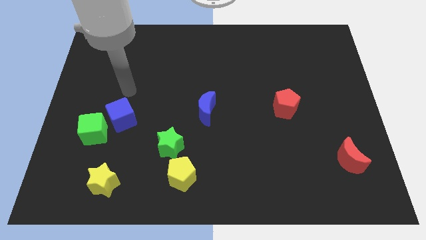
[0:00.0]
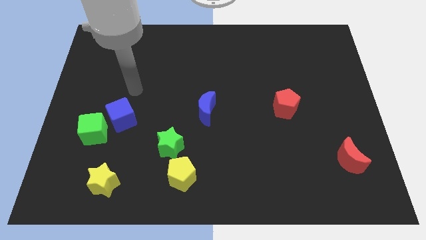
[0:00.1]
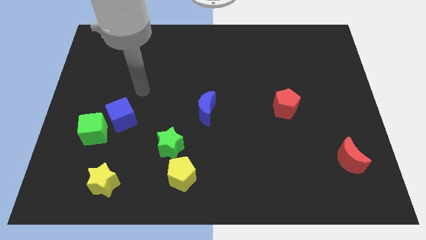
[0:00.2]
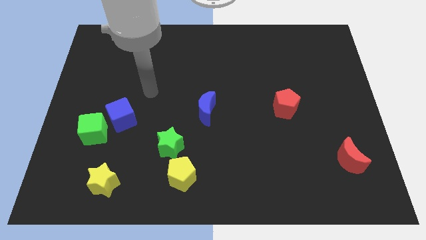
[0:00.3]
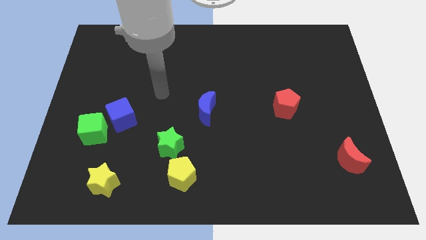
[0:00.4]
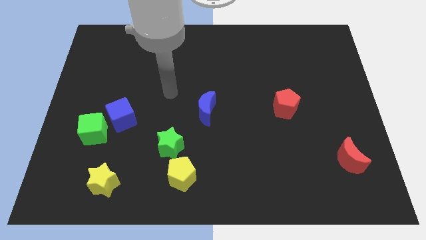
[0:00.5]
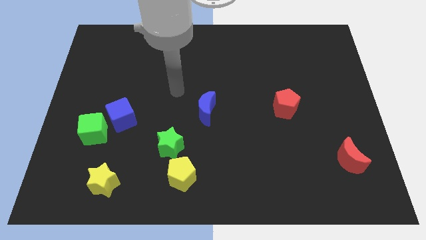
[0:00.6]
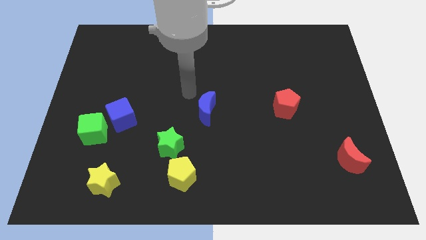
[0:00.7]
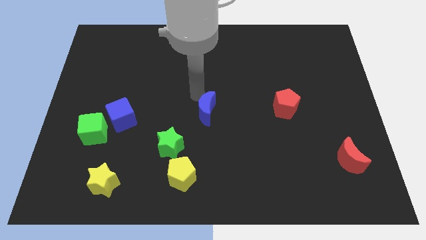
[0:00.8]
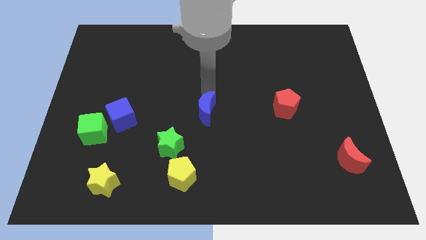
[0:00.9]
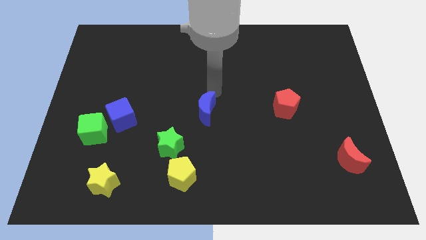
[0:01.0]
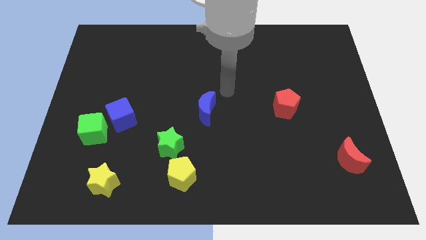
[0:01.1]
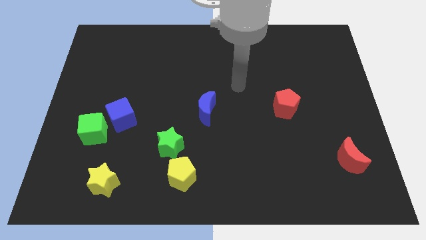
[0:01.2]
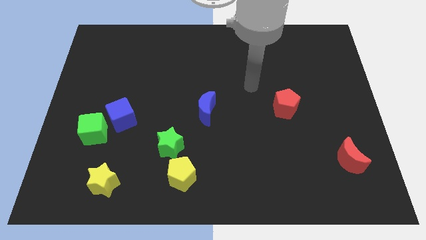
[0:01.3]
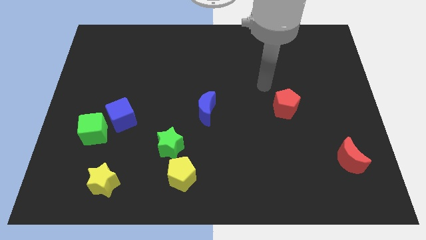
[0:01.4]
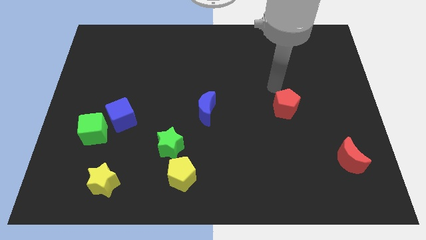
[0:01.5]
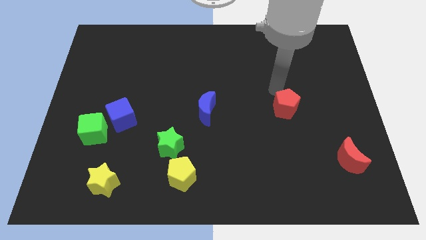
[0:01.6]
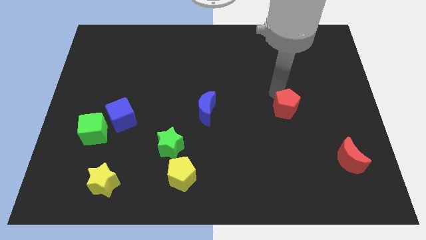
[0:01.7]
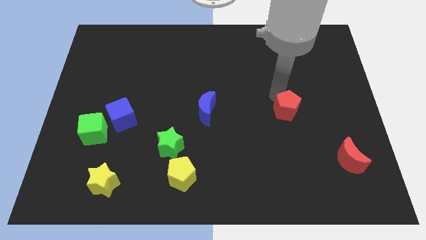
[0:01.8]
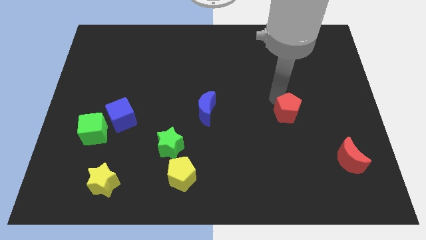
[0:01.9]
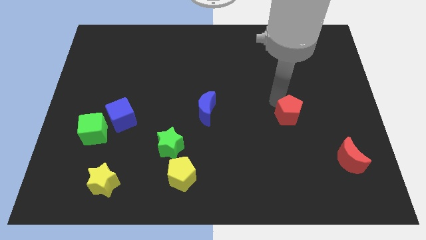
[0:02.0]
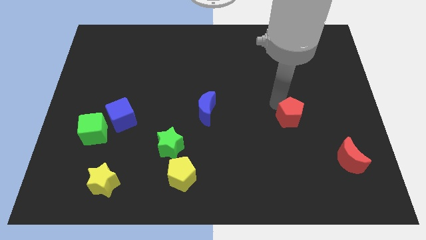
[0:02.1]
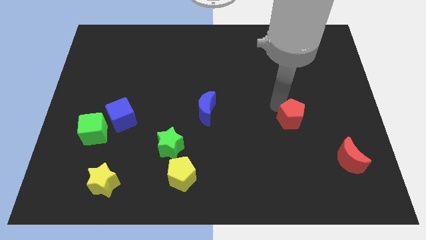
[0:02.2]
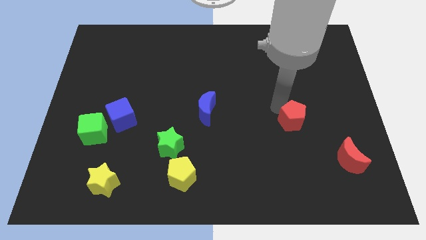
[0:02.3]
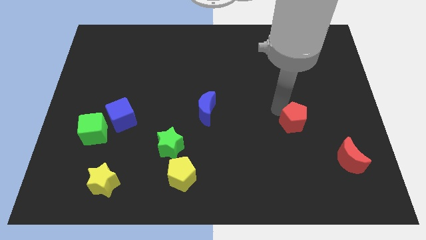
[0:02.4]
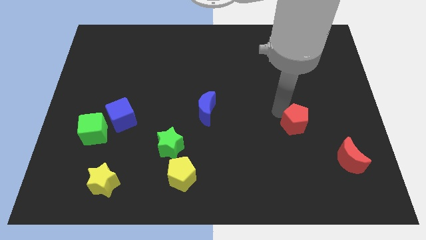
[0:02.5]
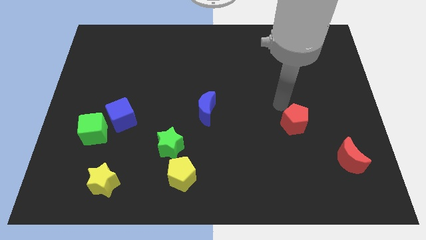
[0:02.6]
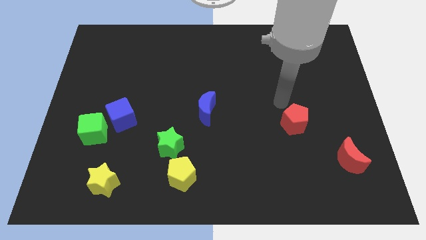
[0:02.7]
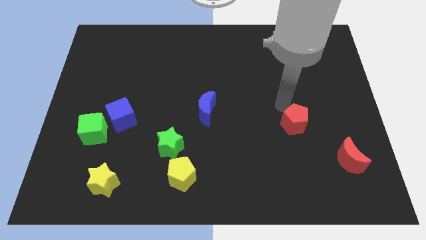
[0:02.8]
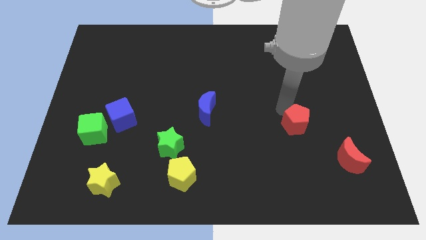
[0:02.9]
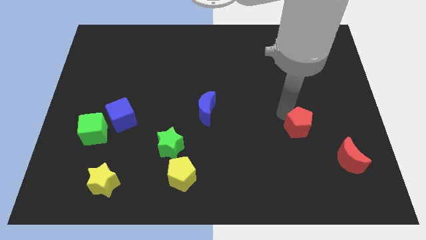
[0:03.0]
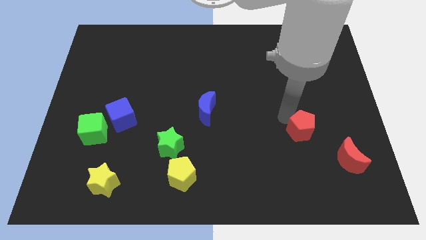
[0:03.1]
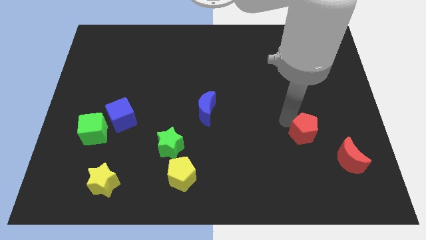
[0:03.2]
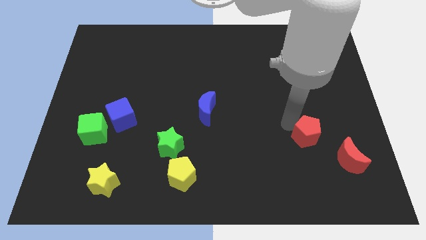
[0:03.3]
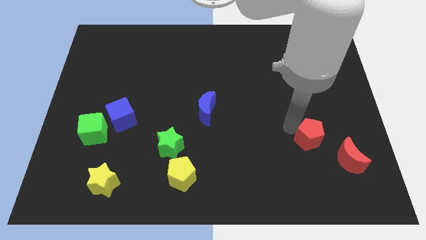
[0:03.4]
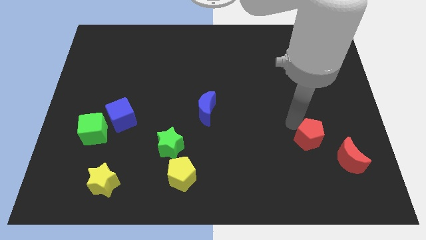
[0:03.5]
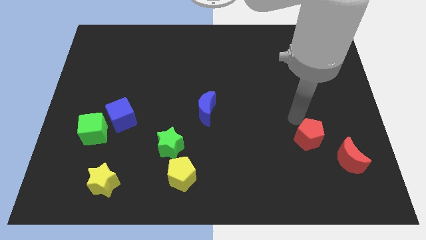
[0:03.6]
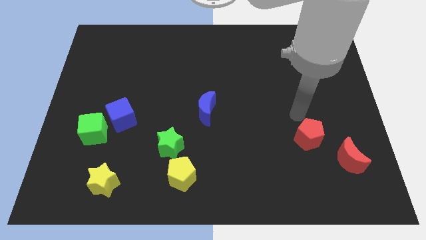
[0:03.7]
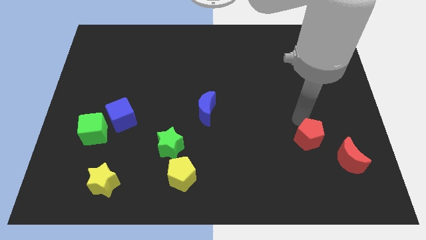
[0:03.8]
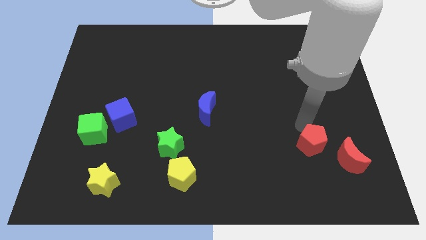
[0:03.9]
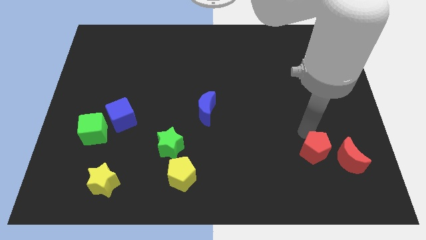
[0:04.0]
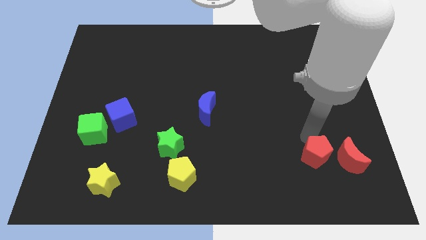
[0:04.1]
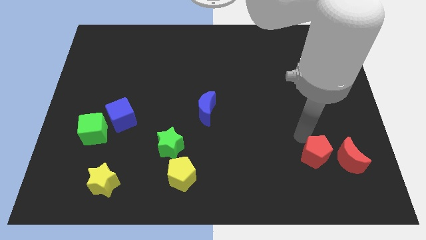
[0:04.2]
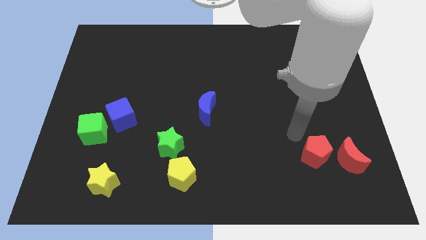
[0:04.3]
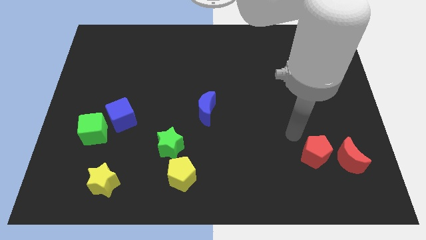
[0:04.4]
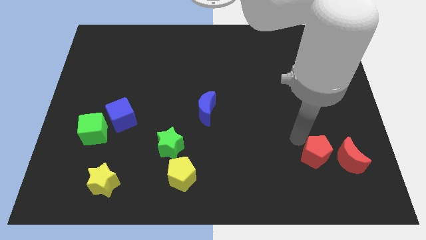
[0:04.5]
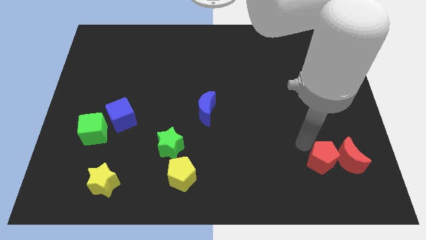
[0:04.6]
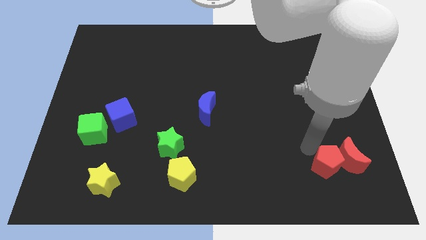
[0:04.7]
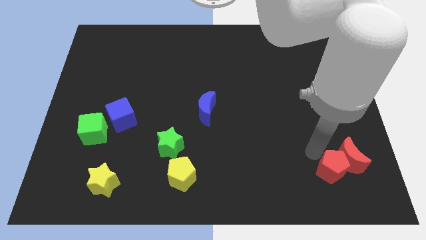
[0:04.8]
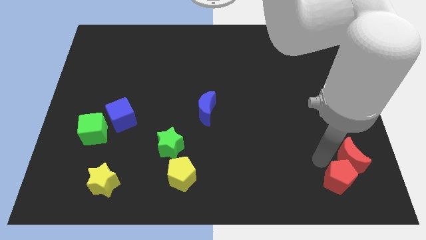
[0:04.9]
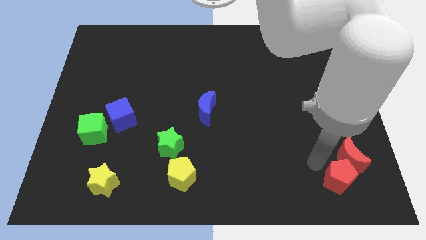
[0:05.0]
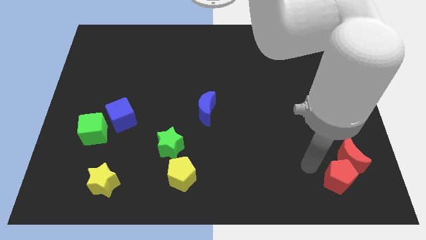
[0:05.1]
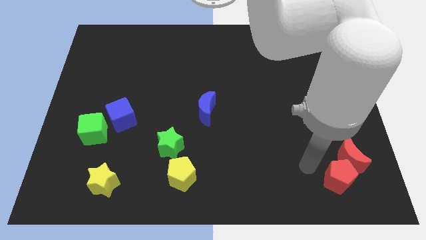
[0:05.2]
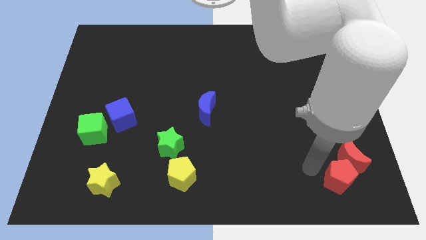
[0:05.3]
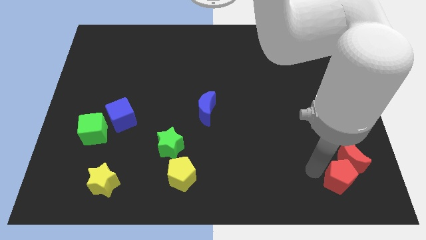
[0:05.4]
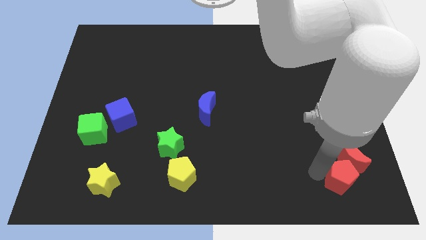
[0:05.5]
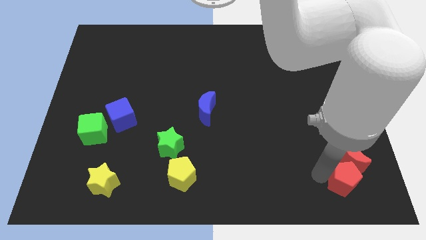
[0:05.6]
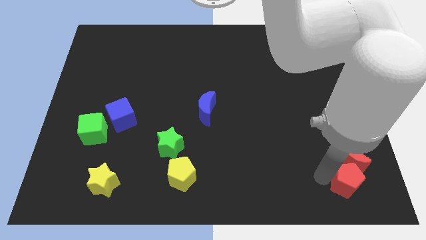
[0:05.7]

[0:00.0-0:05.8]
slide the red pentagon to the lower right corner

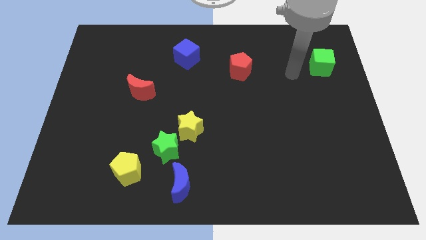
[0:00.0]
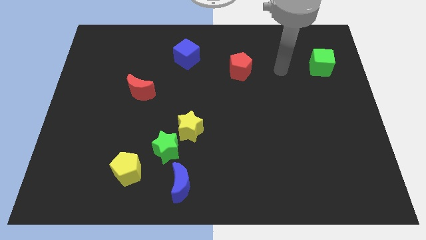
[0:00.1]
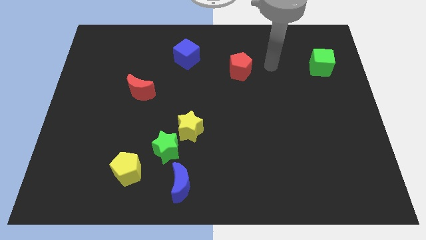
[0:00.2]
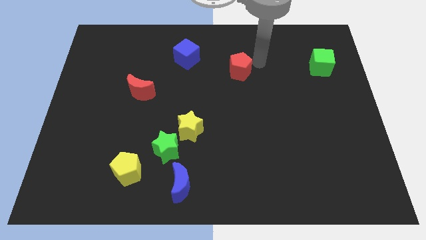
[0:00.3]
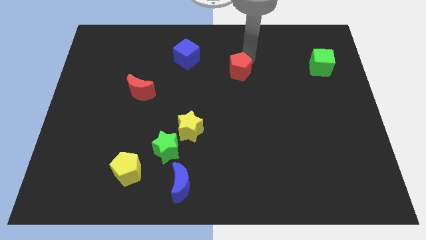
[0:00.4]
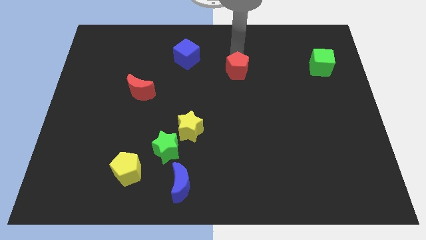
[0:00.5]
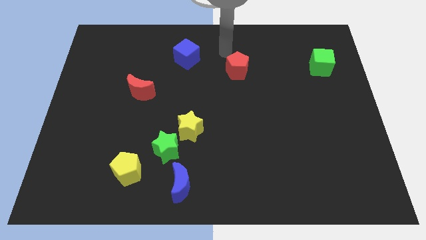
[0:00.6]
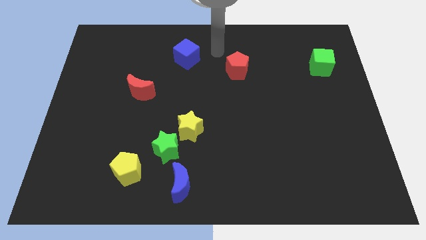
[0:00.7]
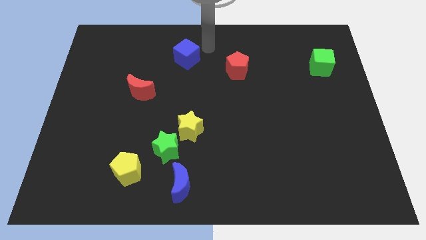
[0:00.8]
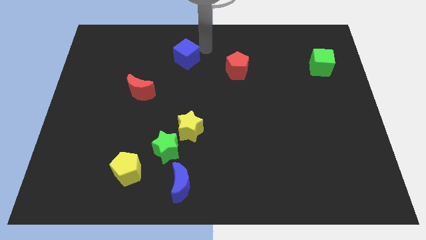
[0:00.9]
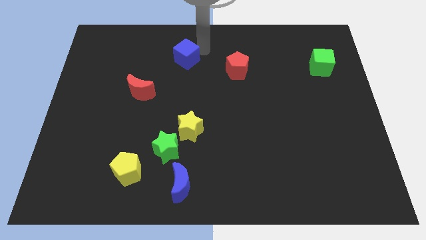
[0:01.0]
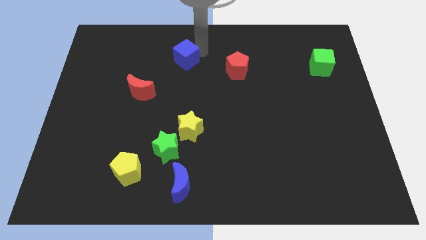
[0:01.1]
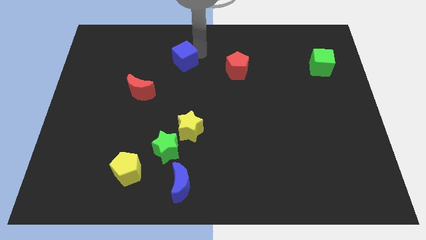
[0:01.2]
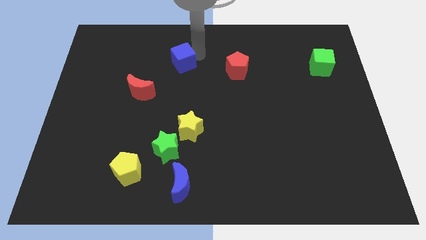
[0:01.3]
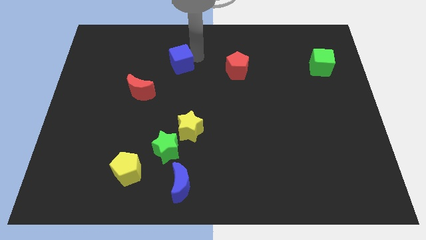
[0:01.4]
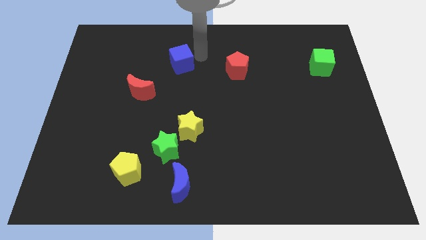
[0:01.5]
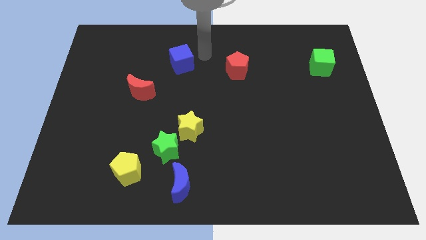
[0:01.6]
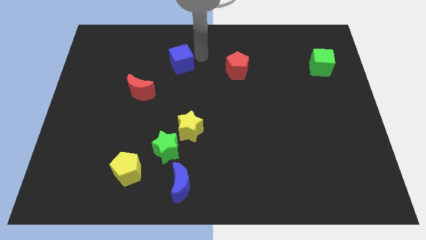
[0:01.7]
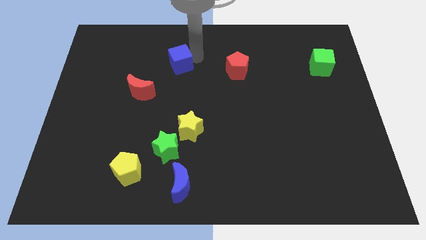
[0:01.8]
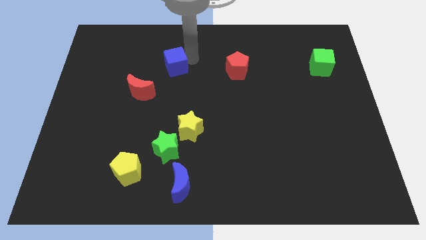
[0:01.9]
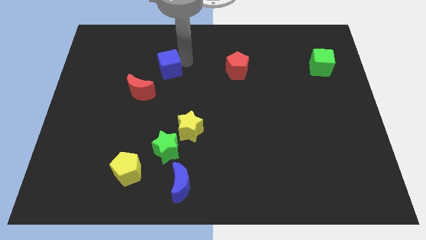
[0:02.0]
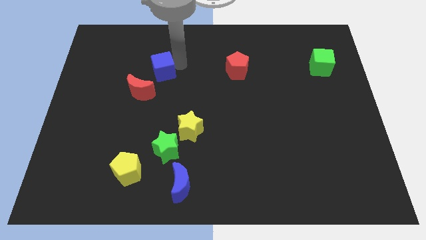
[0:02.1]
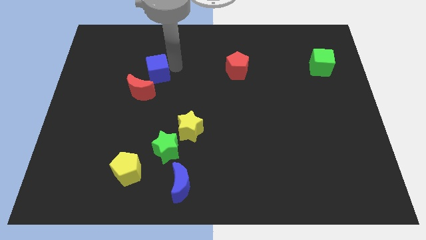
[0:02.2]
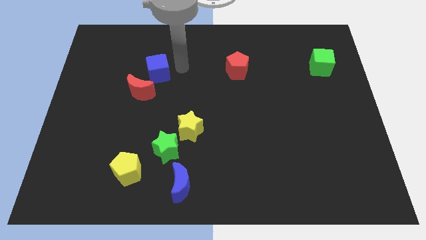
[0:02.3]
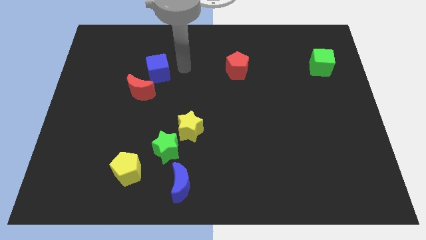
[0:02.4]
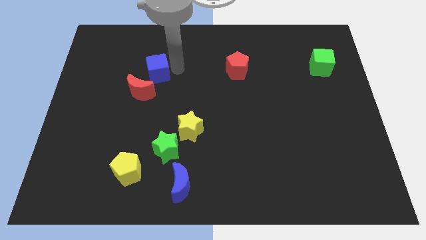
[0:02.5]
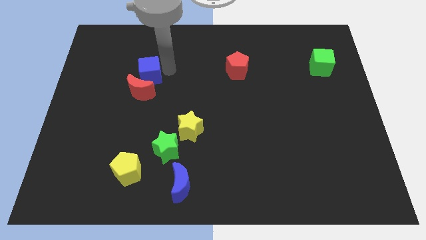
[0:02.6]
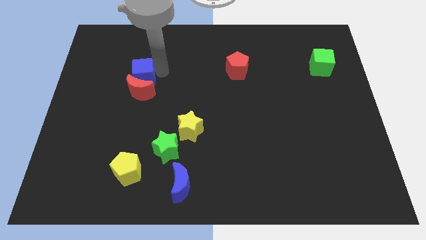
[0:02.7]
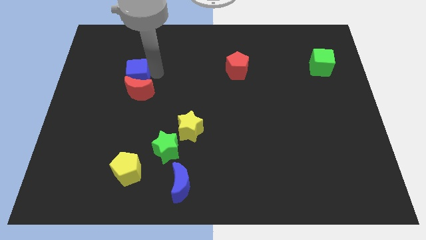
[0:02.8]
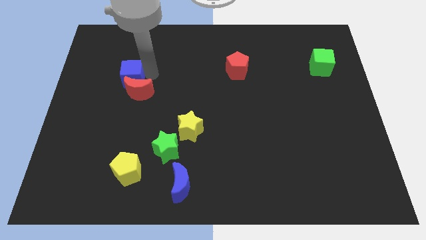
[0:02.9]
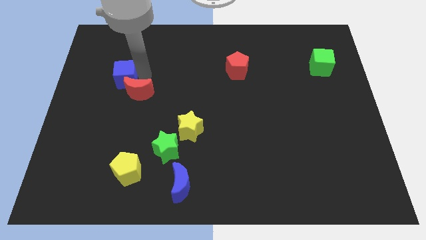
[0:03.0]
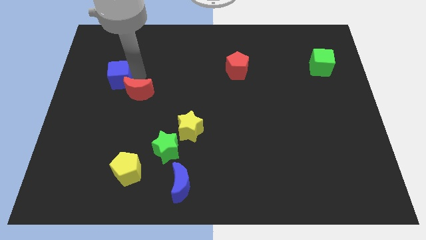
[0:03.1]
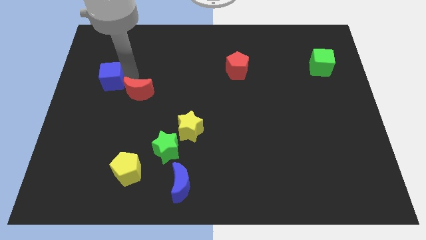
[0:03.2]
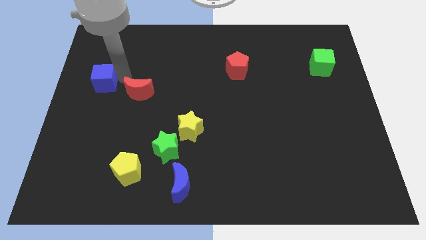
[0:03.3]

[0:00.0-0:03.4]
push the blue cube to the left side
